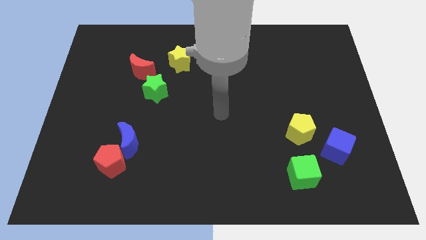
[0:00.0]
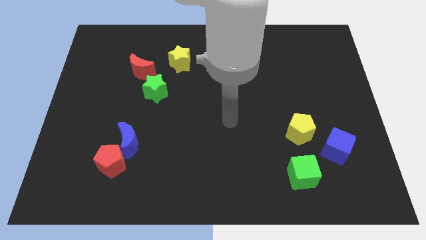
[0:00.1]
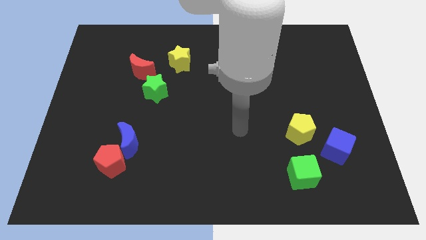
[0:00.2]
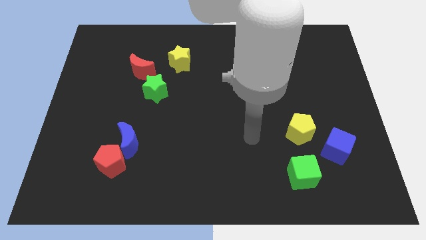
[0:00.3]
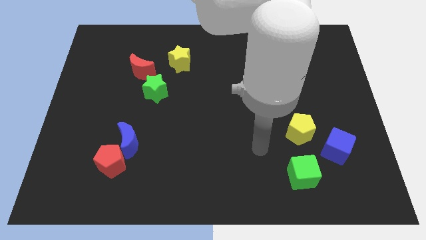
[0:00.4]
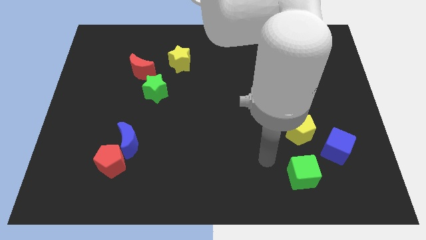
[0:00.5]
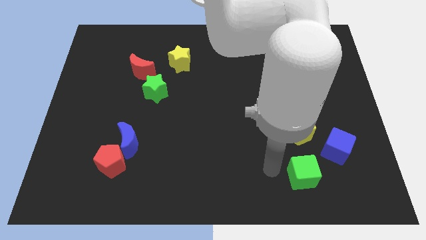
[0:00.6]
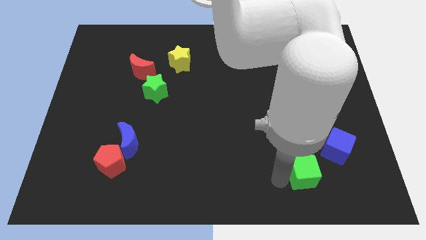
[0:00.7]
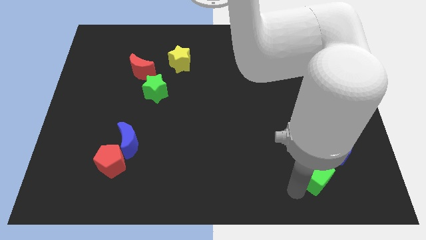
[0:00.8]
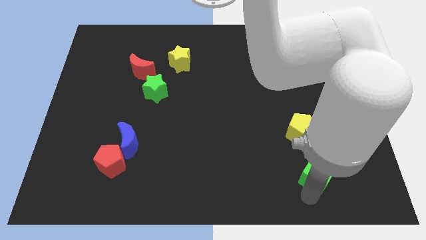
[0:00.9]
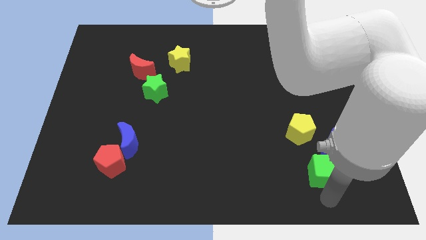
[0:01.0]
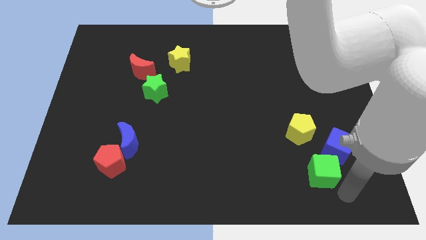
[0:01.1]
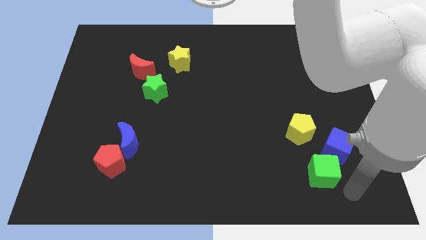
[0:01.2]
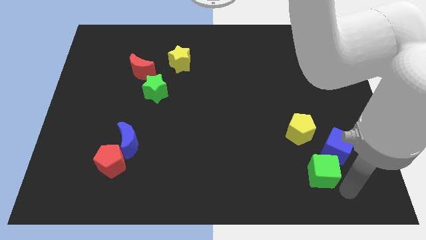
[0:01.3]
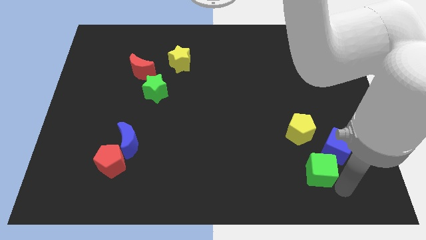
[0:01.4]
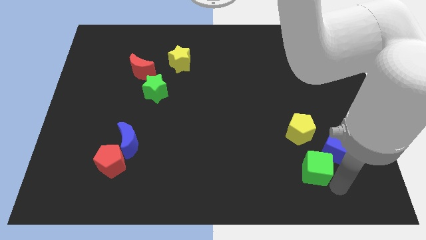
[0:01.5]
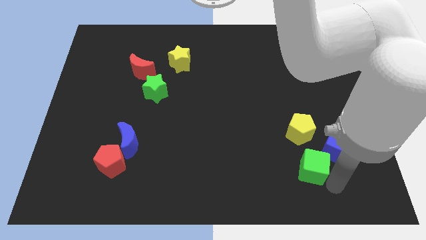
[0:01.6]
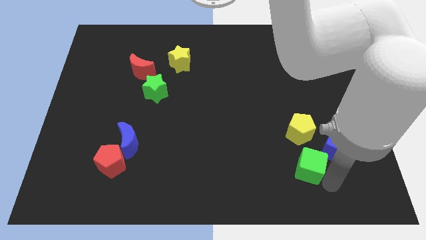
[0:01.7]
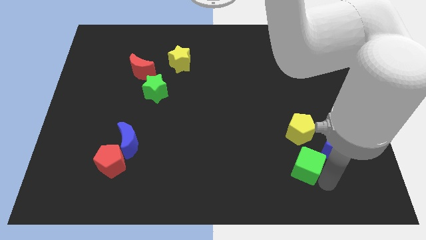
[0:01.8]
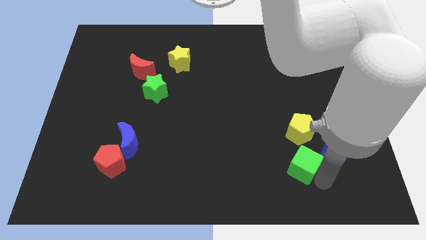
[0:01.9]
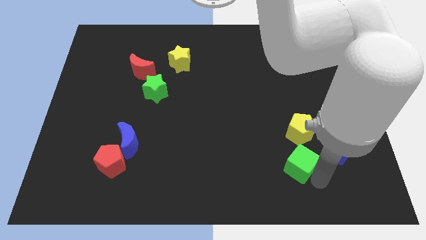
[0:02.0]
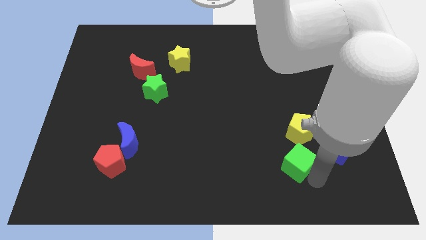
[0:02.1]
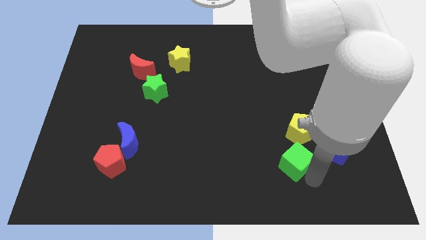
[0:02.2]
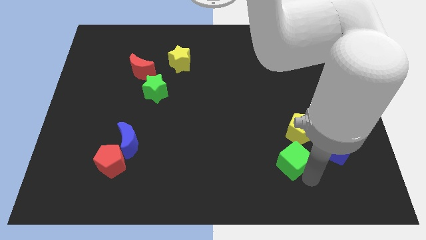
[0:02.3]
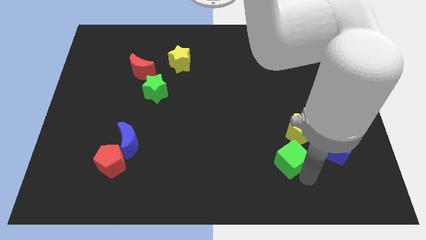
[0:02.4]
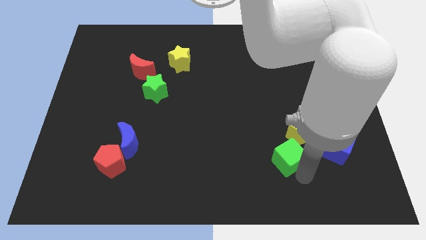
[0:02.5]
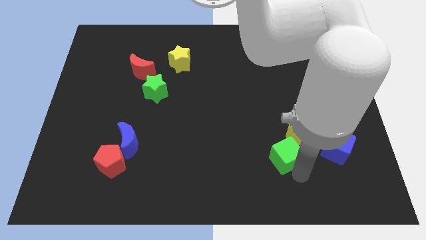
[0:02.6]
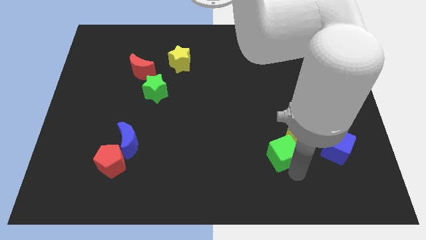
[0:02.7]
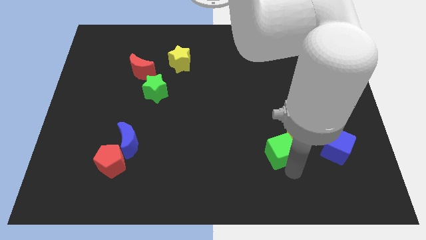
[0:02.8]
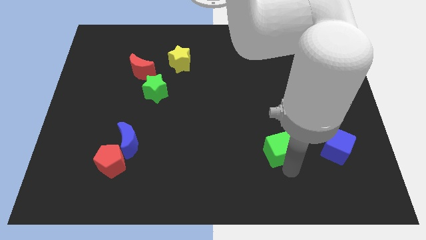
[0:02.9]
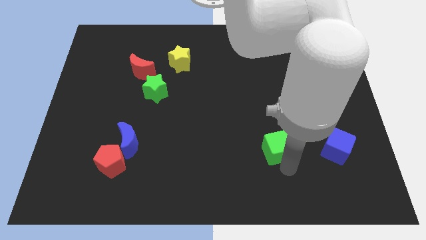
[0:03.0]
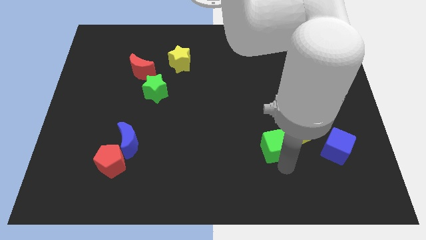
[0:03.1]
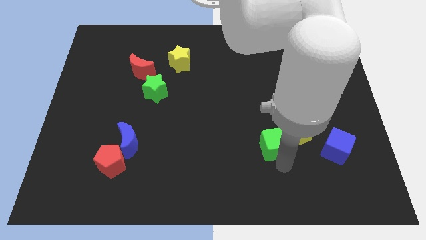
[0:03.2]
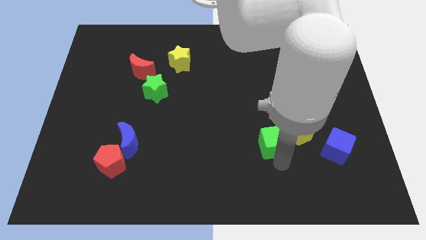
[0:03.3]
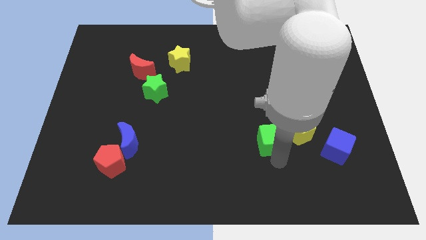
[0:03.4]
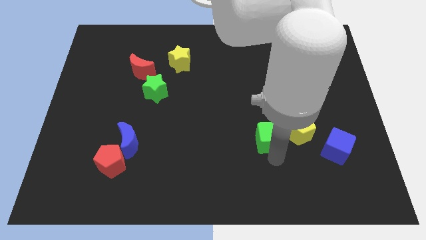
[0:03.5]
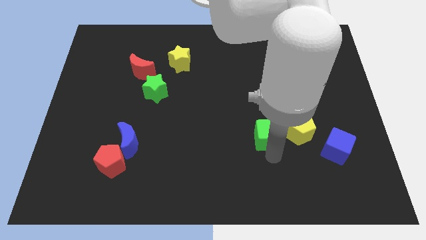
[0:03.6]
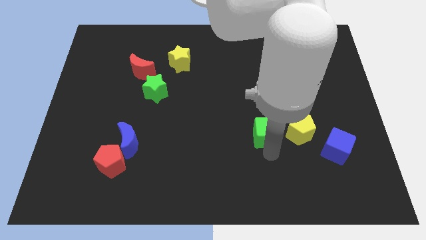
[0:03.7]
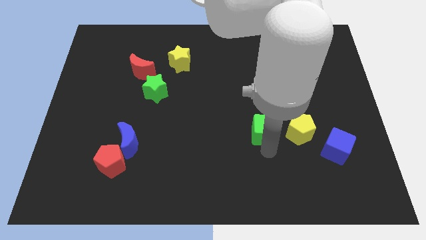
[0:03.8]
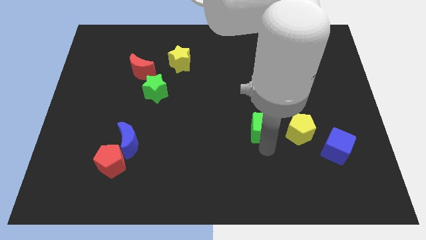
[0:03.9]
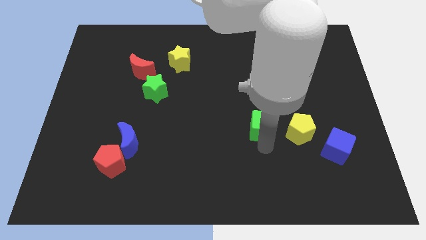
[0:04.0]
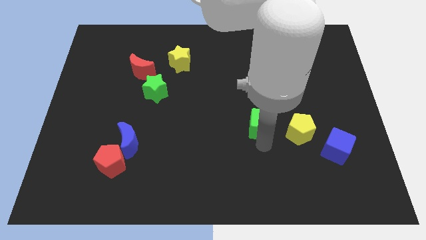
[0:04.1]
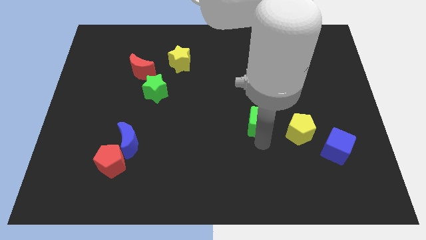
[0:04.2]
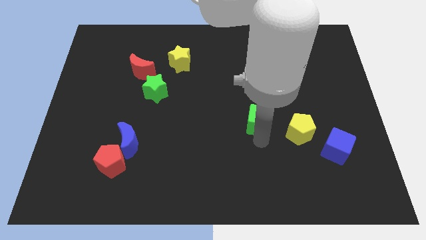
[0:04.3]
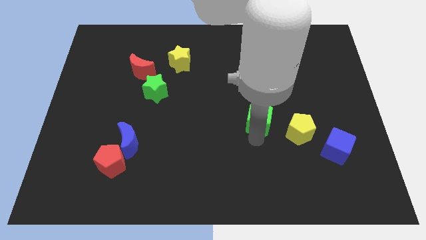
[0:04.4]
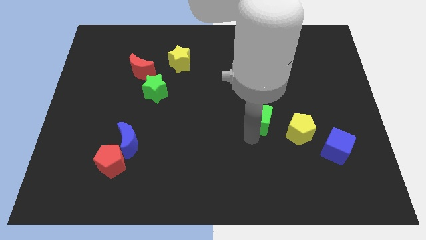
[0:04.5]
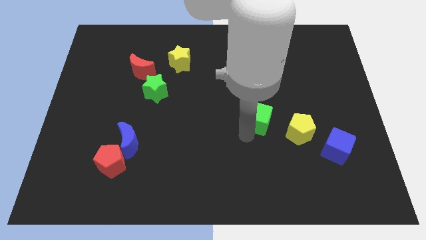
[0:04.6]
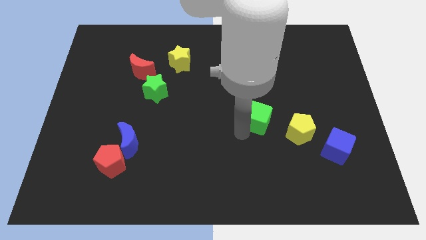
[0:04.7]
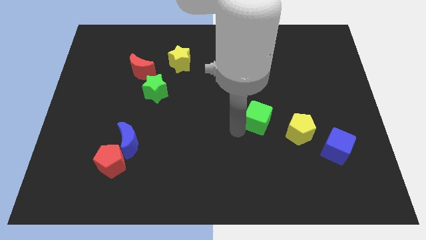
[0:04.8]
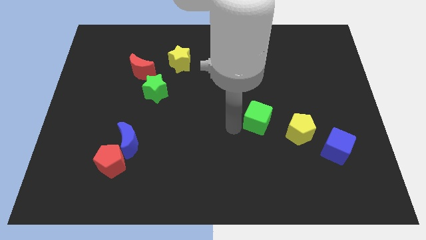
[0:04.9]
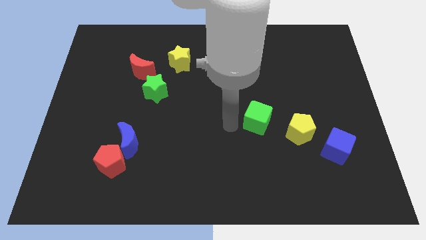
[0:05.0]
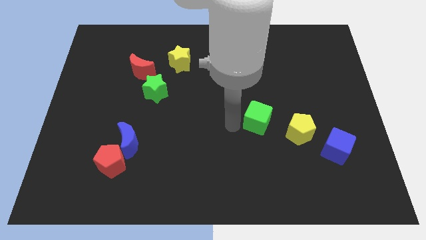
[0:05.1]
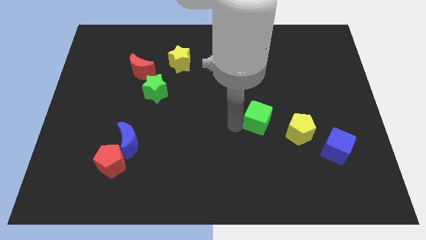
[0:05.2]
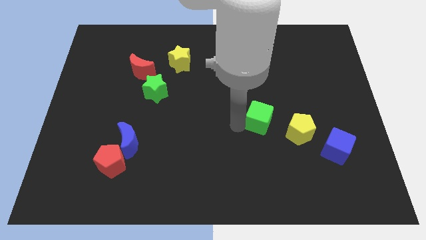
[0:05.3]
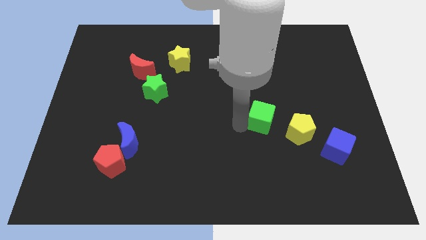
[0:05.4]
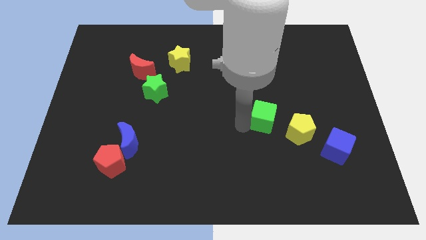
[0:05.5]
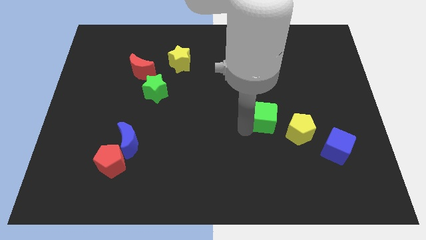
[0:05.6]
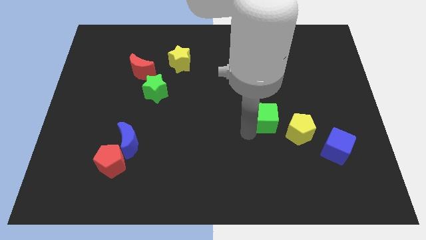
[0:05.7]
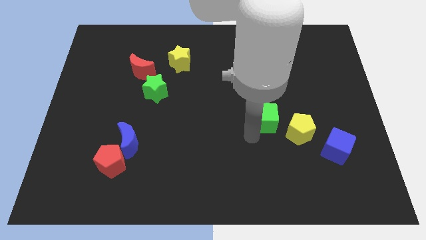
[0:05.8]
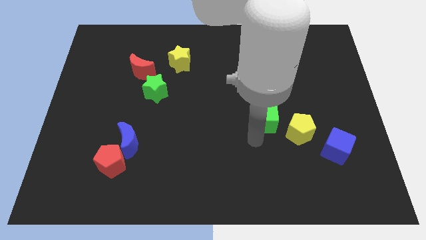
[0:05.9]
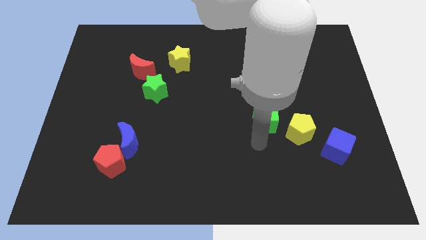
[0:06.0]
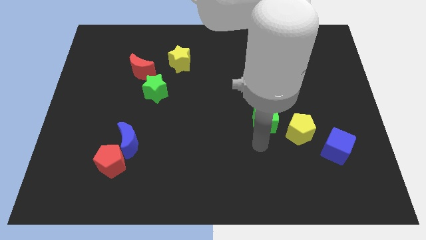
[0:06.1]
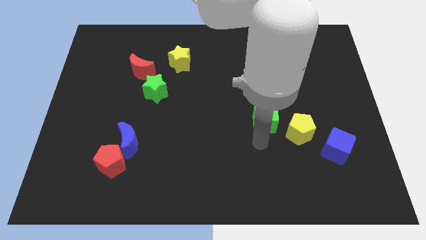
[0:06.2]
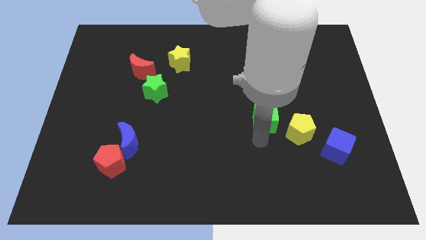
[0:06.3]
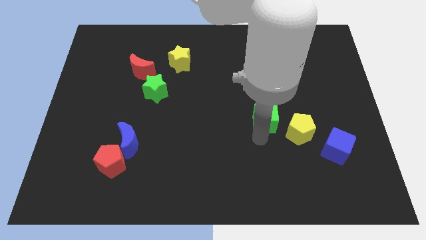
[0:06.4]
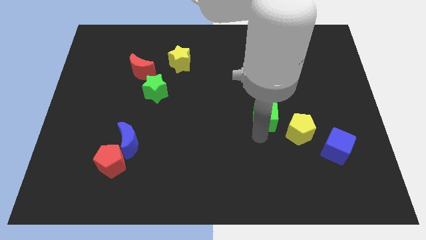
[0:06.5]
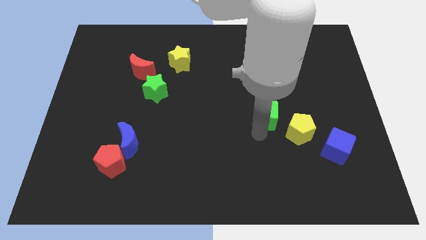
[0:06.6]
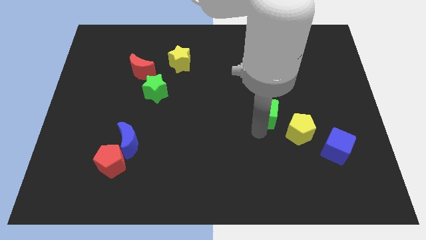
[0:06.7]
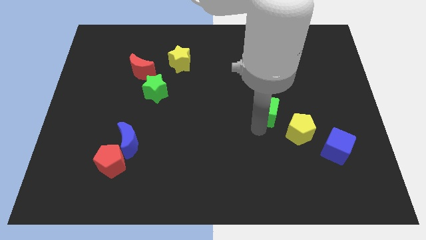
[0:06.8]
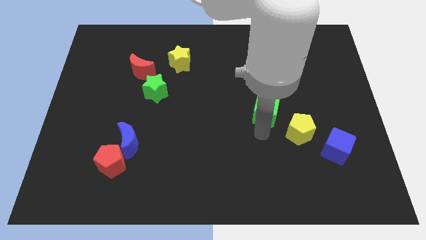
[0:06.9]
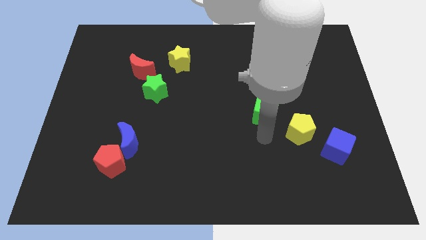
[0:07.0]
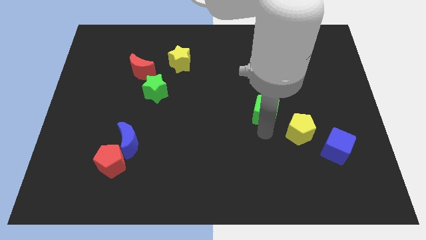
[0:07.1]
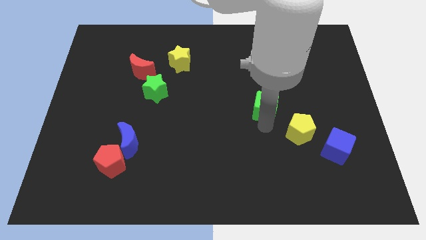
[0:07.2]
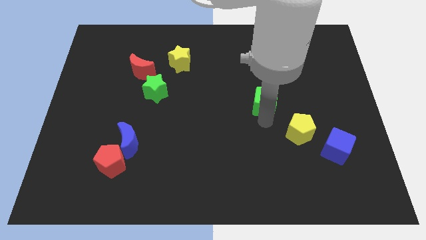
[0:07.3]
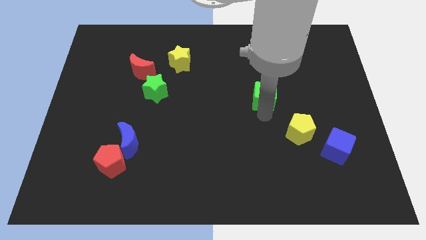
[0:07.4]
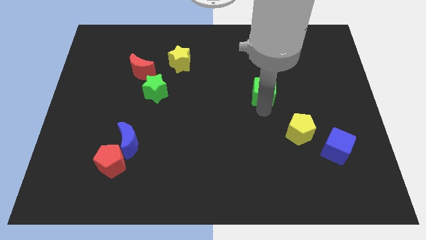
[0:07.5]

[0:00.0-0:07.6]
push the green cube upwards

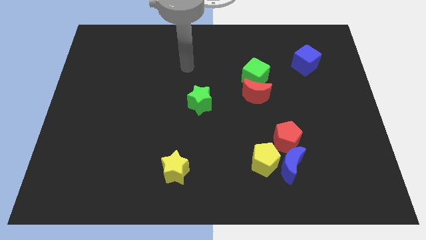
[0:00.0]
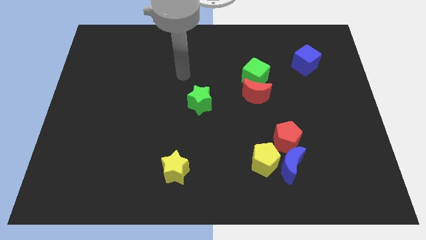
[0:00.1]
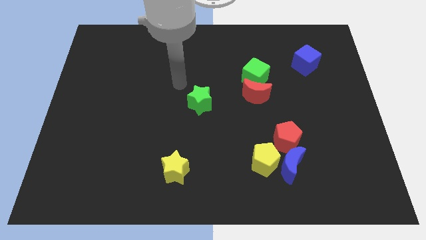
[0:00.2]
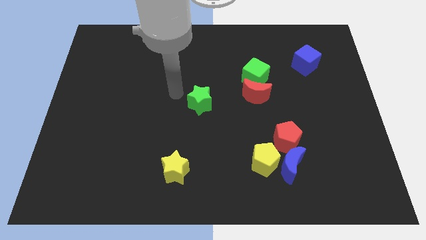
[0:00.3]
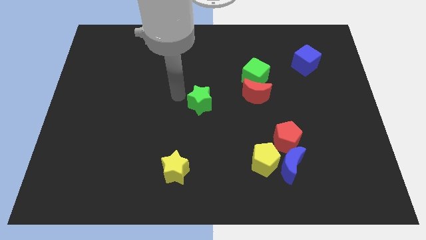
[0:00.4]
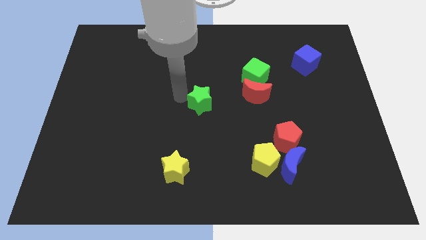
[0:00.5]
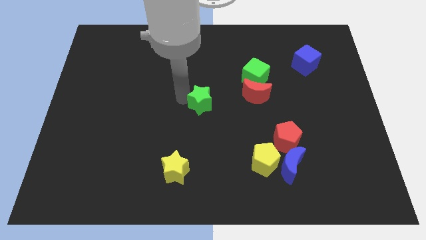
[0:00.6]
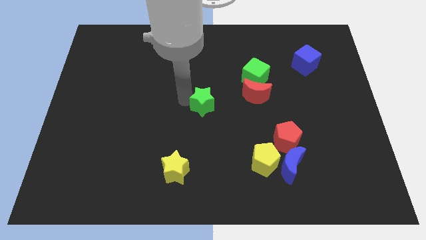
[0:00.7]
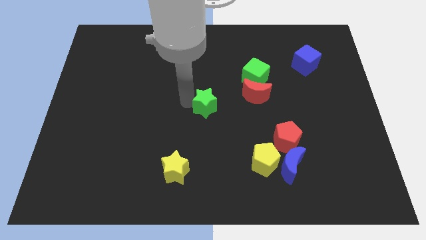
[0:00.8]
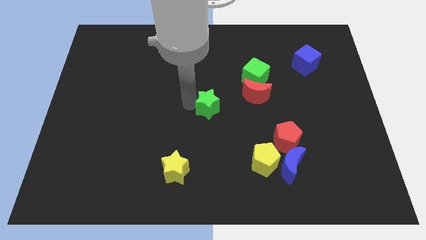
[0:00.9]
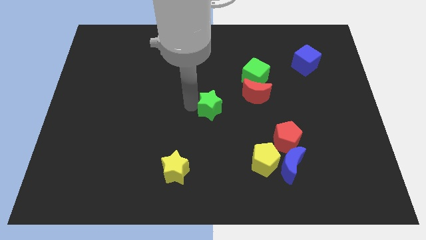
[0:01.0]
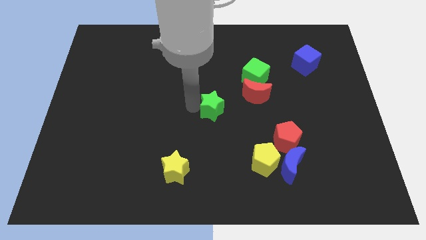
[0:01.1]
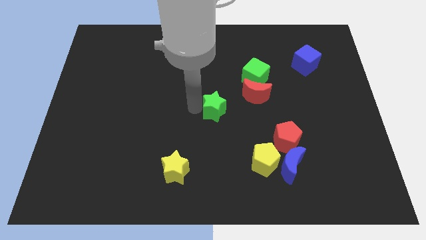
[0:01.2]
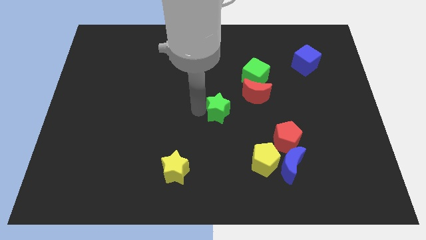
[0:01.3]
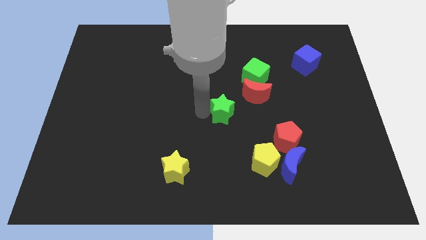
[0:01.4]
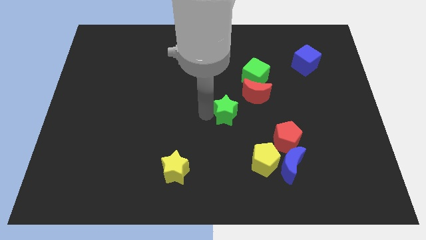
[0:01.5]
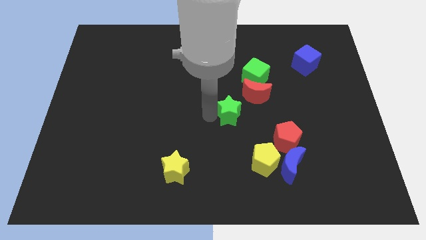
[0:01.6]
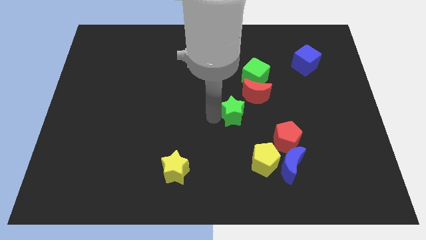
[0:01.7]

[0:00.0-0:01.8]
slide the green star somewhat right
